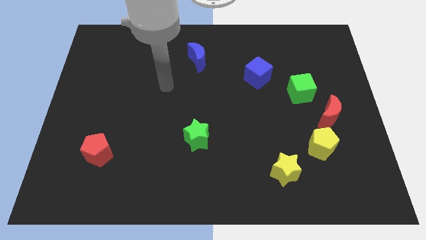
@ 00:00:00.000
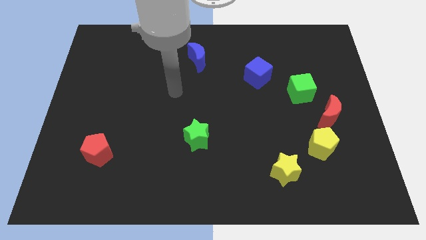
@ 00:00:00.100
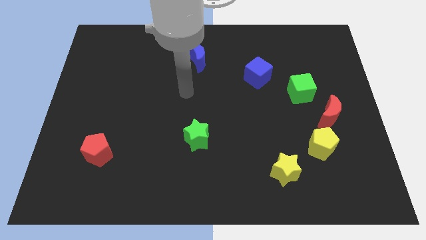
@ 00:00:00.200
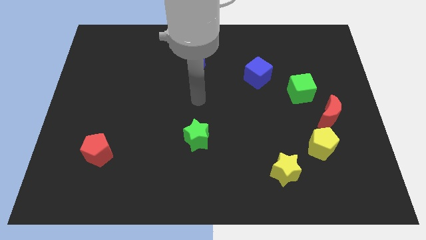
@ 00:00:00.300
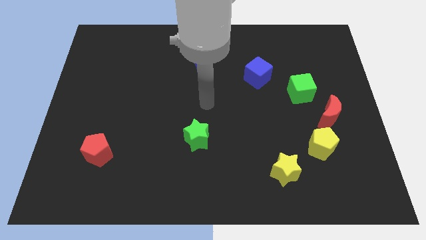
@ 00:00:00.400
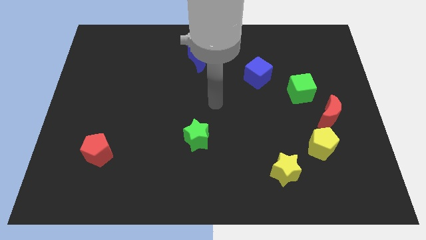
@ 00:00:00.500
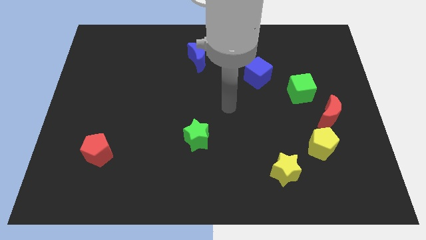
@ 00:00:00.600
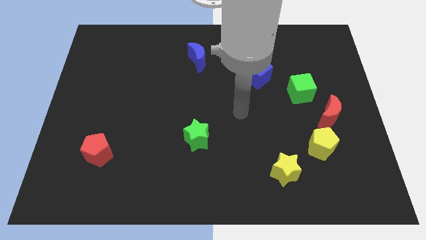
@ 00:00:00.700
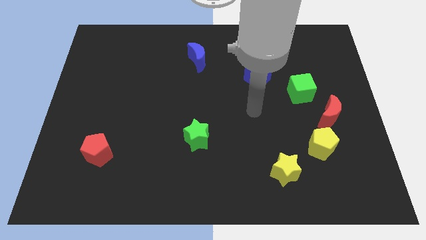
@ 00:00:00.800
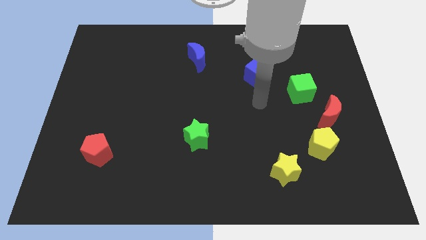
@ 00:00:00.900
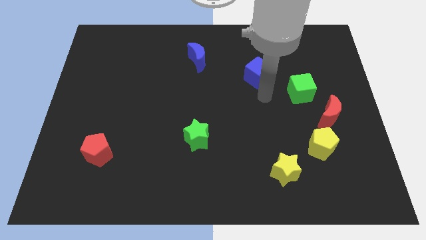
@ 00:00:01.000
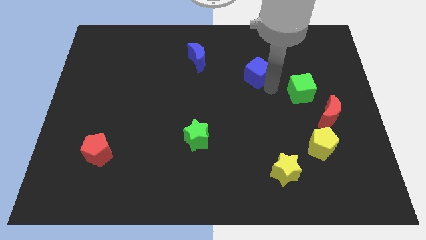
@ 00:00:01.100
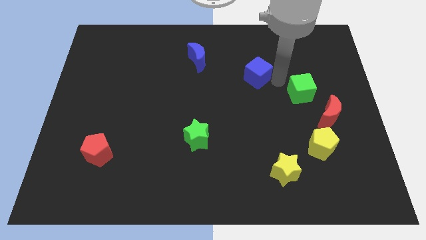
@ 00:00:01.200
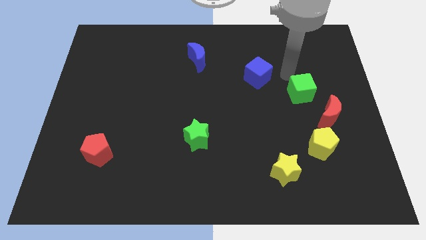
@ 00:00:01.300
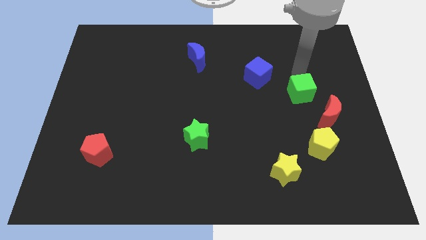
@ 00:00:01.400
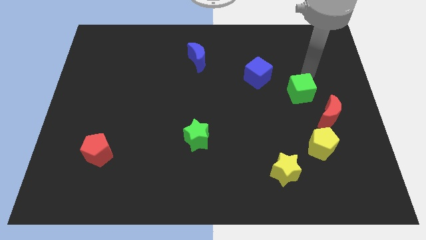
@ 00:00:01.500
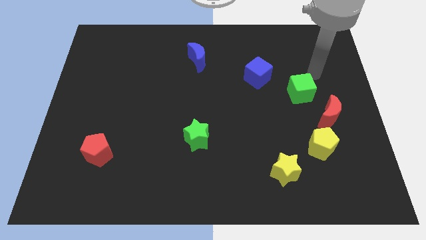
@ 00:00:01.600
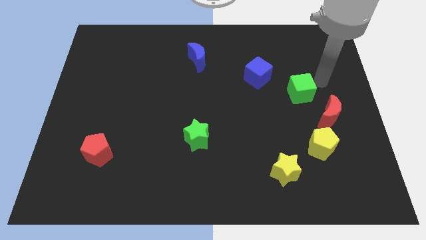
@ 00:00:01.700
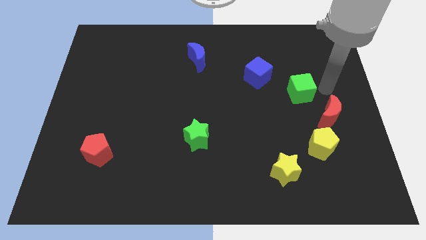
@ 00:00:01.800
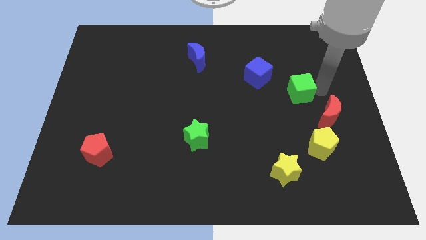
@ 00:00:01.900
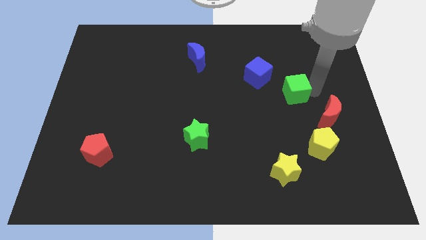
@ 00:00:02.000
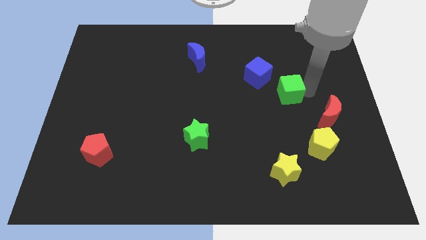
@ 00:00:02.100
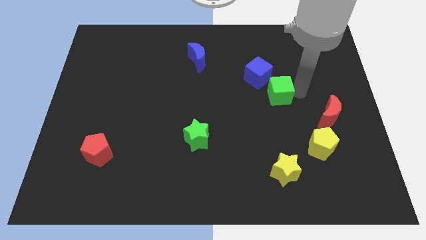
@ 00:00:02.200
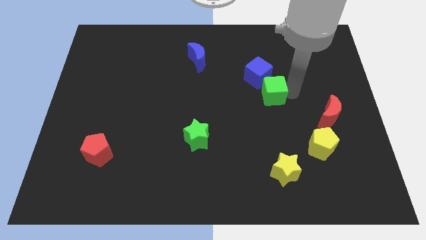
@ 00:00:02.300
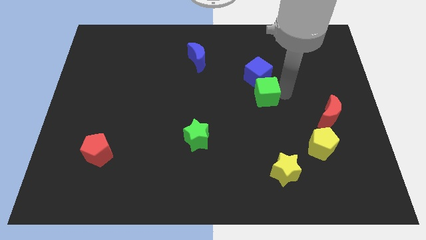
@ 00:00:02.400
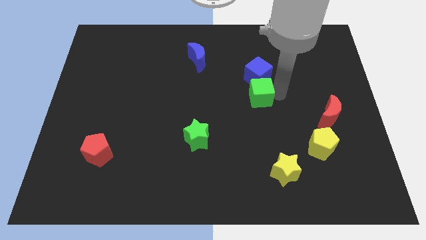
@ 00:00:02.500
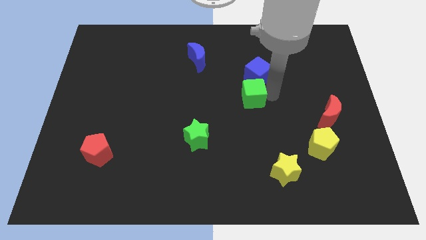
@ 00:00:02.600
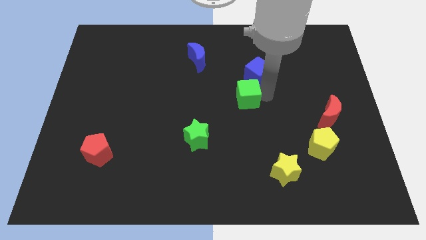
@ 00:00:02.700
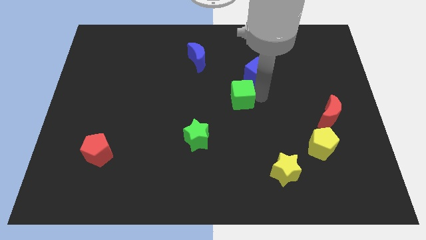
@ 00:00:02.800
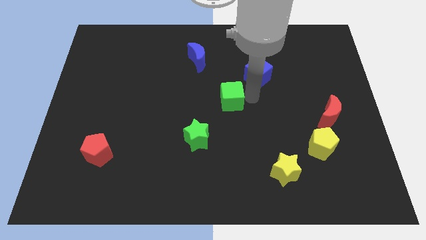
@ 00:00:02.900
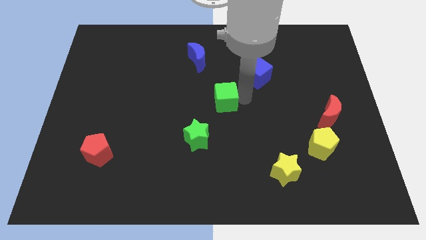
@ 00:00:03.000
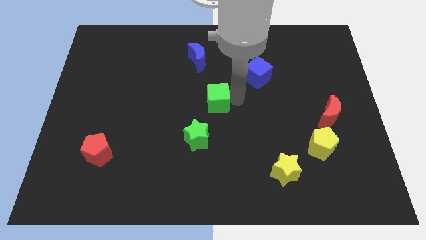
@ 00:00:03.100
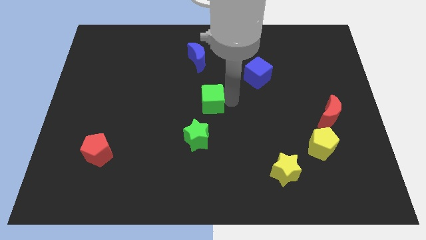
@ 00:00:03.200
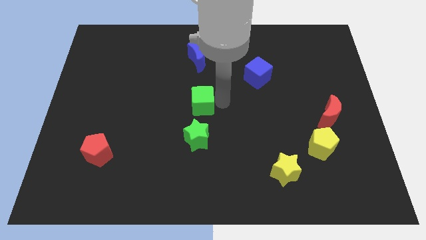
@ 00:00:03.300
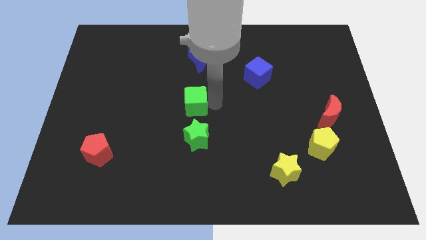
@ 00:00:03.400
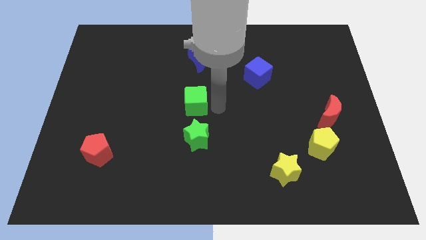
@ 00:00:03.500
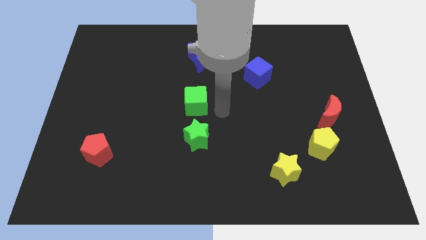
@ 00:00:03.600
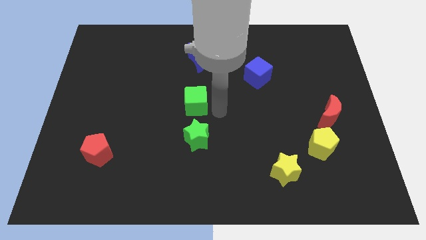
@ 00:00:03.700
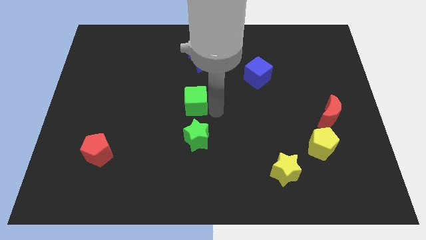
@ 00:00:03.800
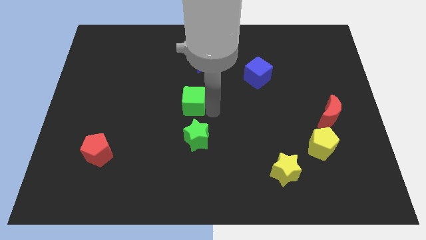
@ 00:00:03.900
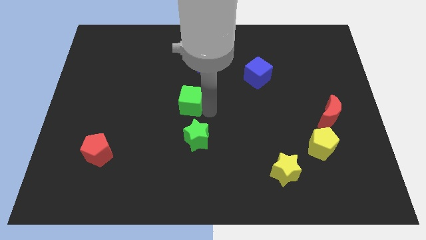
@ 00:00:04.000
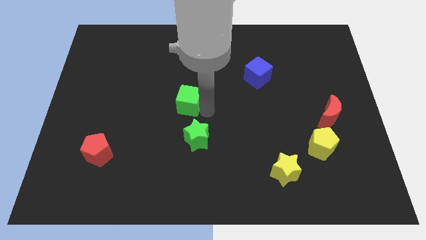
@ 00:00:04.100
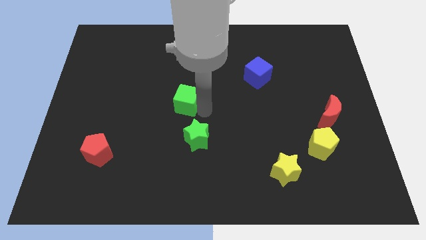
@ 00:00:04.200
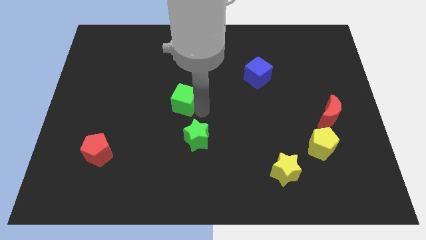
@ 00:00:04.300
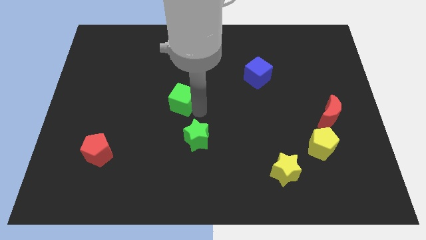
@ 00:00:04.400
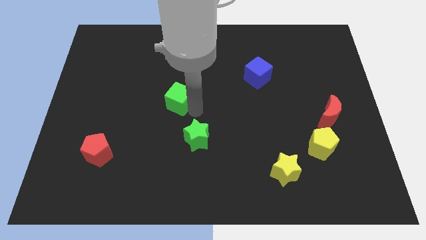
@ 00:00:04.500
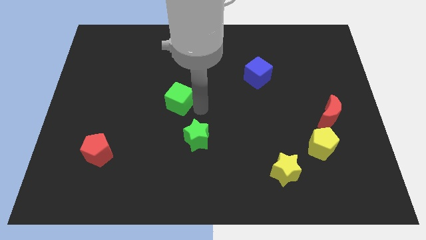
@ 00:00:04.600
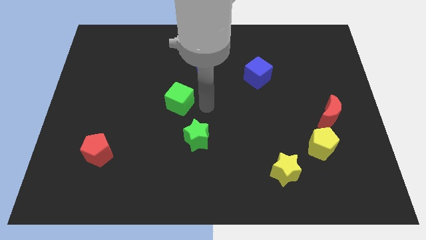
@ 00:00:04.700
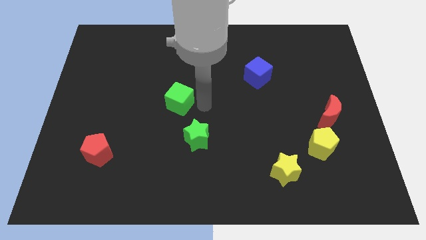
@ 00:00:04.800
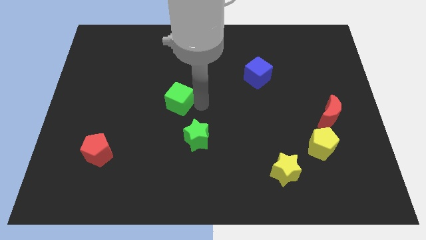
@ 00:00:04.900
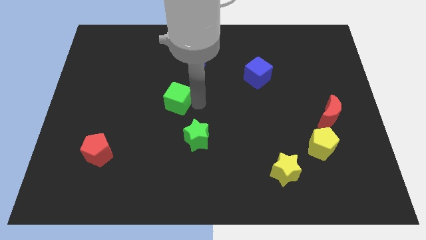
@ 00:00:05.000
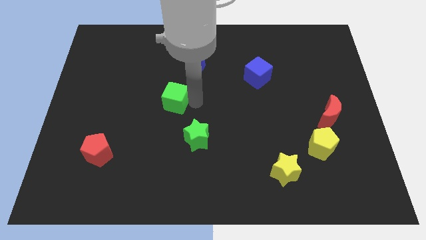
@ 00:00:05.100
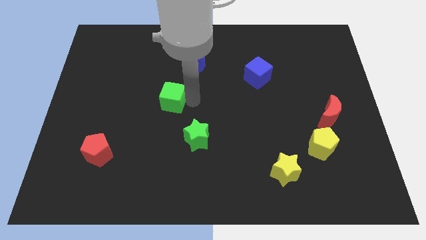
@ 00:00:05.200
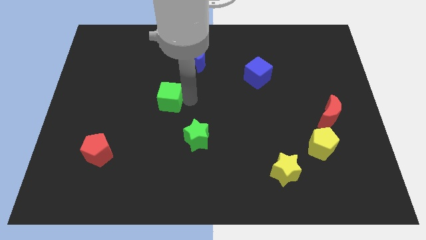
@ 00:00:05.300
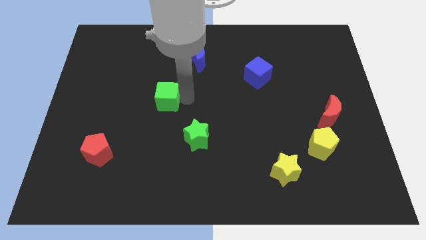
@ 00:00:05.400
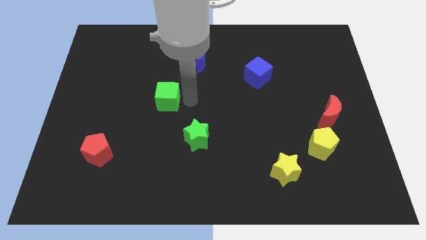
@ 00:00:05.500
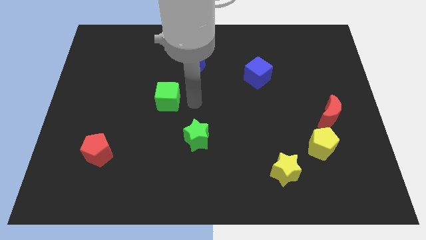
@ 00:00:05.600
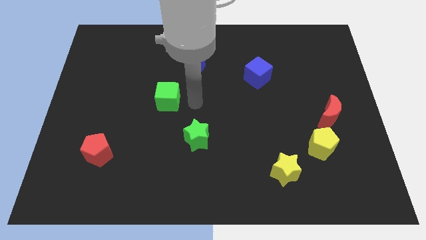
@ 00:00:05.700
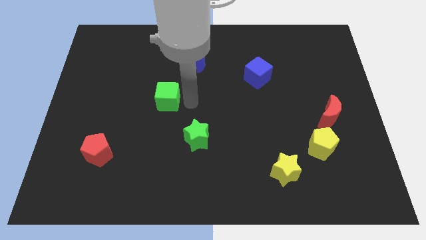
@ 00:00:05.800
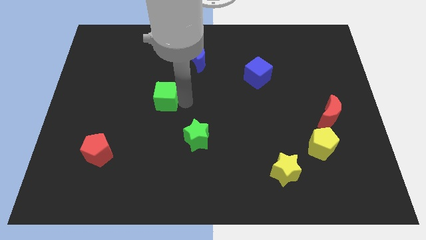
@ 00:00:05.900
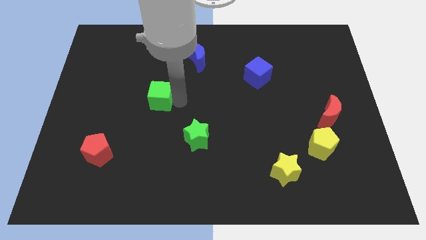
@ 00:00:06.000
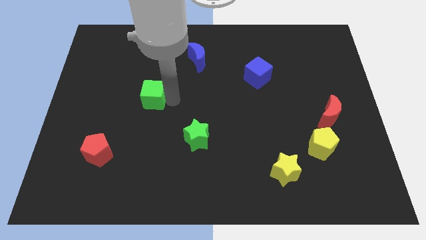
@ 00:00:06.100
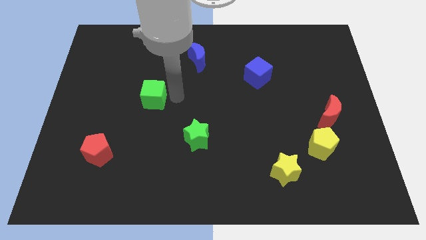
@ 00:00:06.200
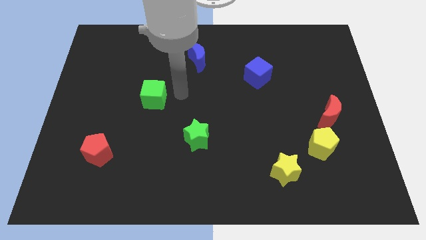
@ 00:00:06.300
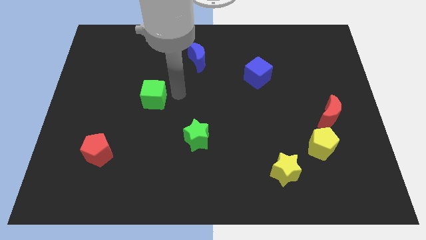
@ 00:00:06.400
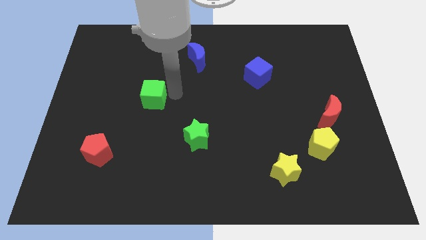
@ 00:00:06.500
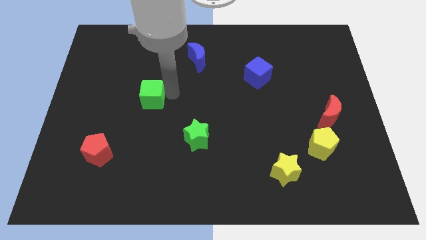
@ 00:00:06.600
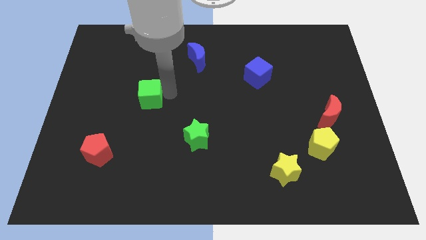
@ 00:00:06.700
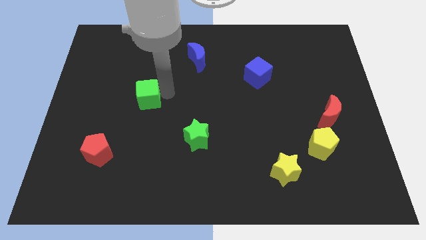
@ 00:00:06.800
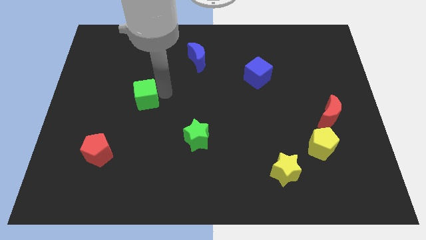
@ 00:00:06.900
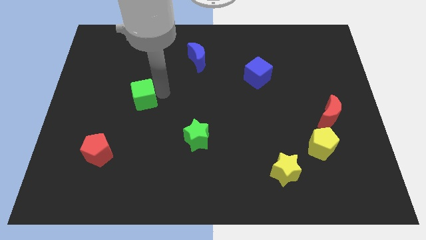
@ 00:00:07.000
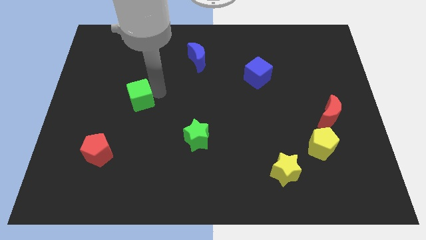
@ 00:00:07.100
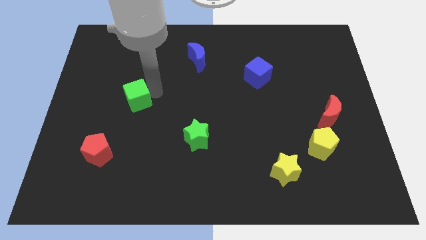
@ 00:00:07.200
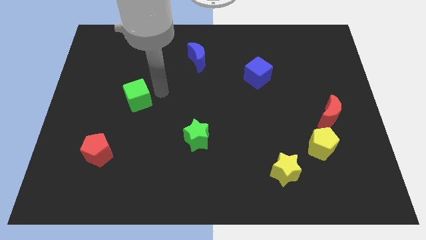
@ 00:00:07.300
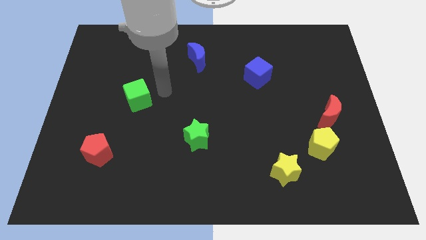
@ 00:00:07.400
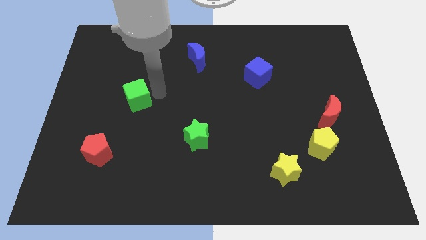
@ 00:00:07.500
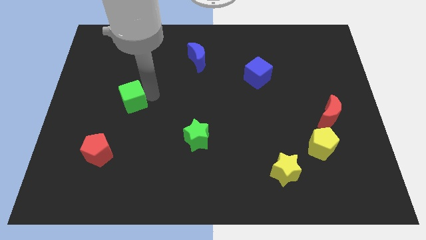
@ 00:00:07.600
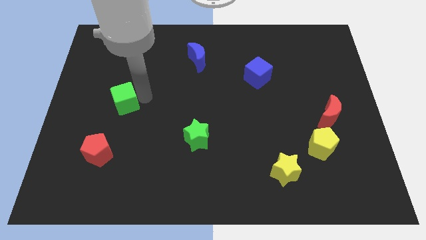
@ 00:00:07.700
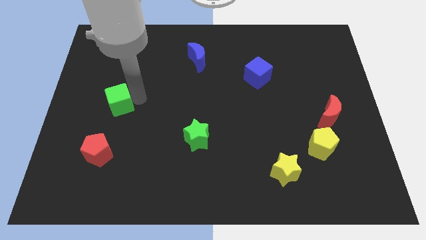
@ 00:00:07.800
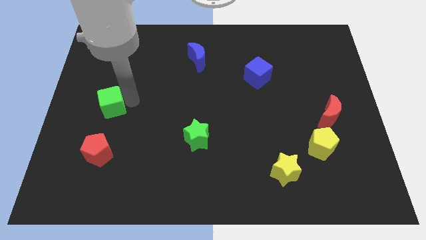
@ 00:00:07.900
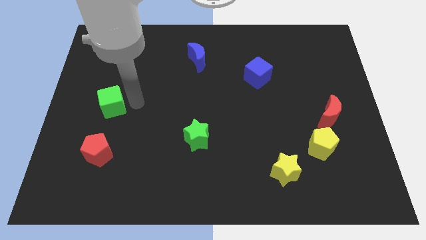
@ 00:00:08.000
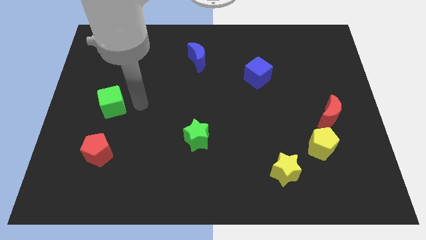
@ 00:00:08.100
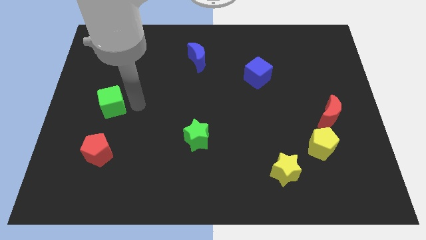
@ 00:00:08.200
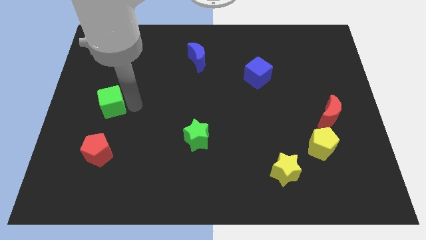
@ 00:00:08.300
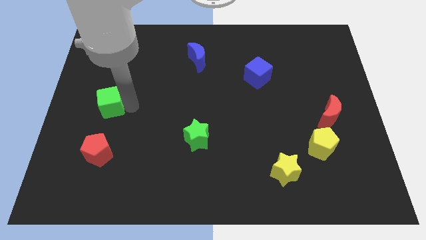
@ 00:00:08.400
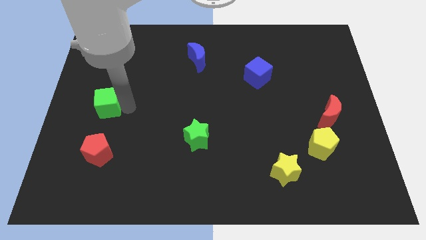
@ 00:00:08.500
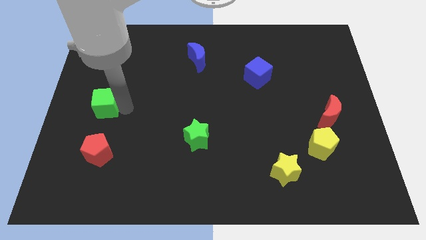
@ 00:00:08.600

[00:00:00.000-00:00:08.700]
push the green cube to the center left
